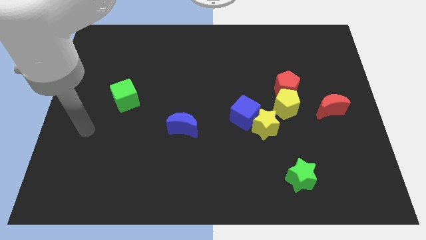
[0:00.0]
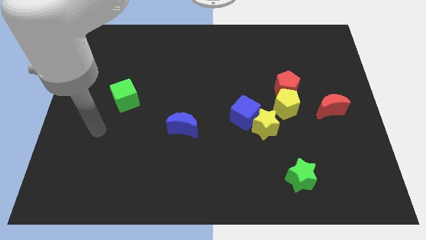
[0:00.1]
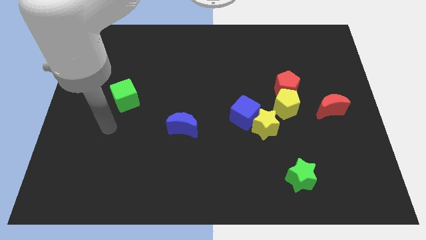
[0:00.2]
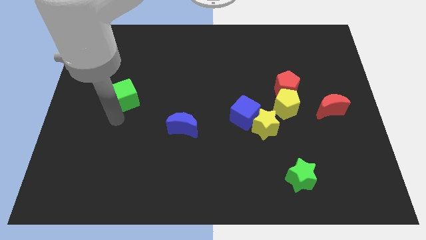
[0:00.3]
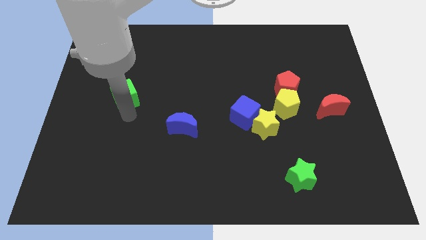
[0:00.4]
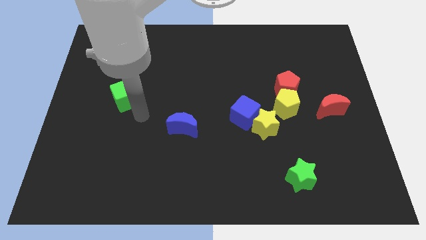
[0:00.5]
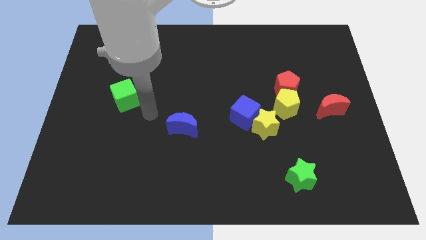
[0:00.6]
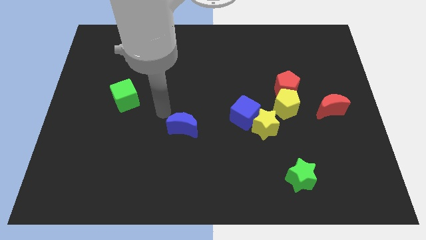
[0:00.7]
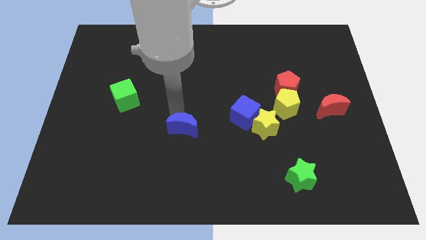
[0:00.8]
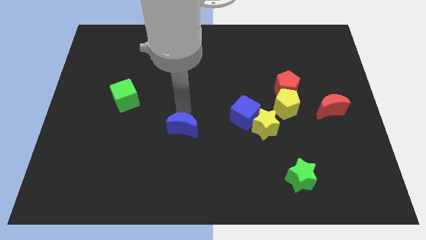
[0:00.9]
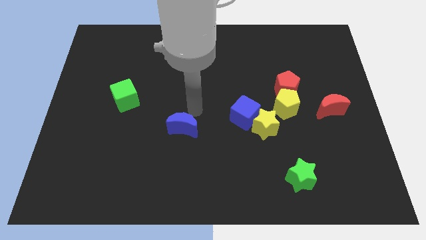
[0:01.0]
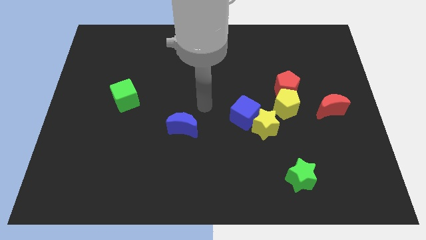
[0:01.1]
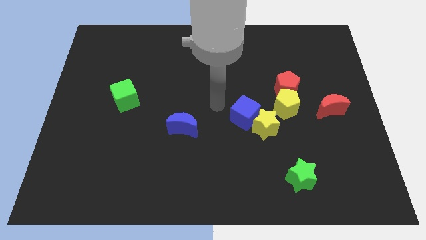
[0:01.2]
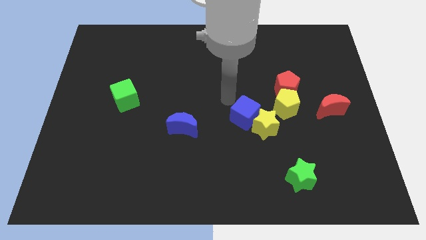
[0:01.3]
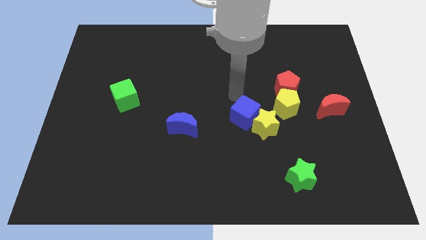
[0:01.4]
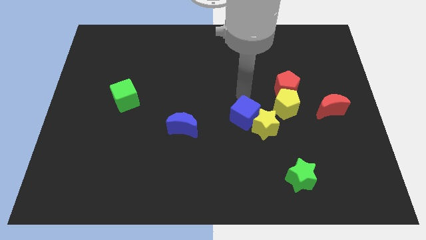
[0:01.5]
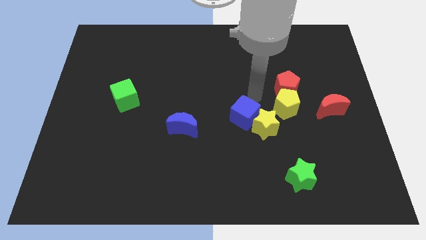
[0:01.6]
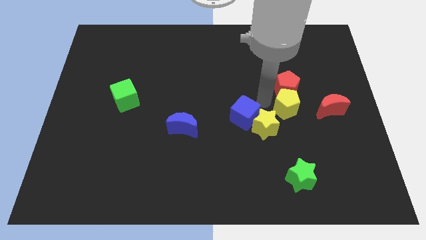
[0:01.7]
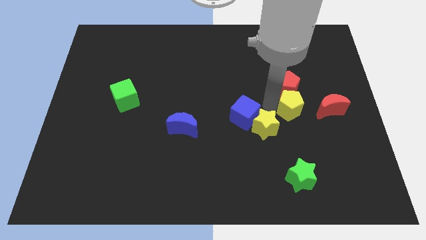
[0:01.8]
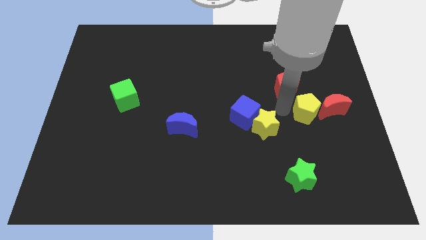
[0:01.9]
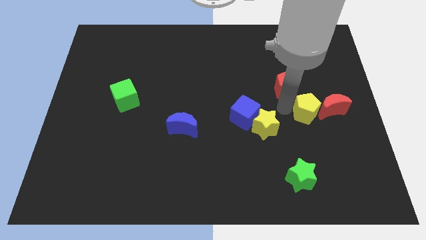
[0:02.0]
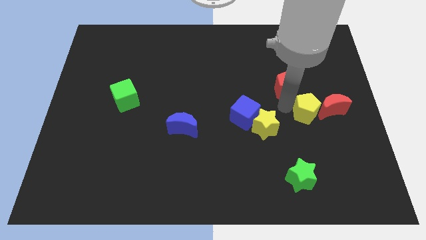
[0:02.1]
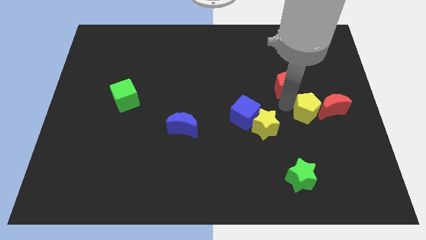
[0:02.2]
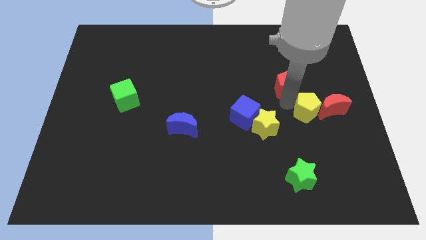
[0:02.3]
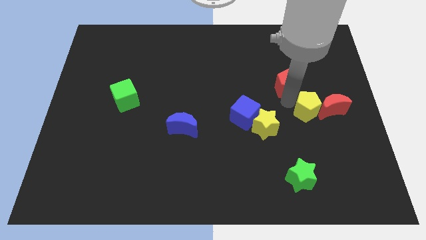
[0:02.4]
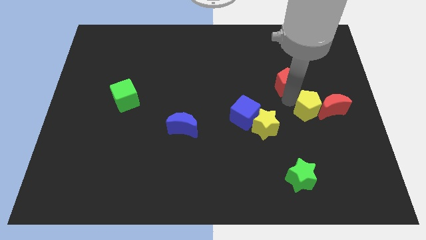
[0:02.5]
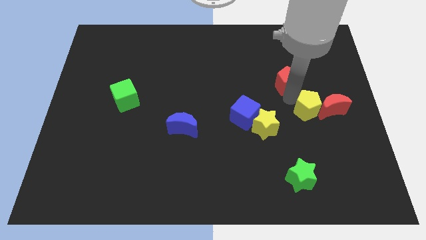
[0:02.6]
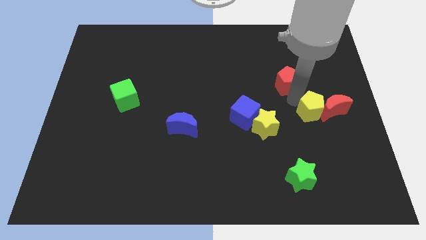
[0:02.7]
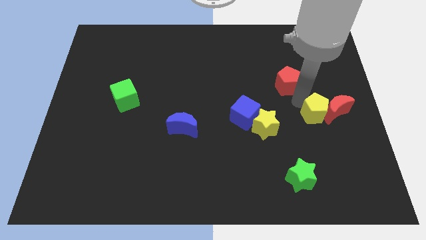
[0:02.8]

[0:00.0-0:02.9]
move the red pentagon away from the yellow pentagon

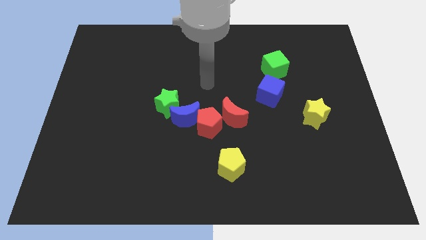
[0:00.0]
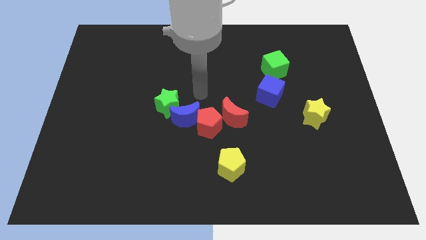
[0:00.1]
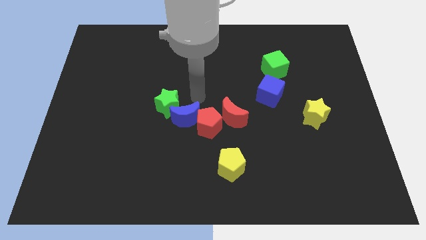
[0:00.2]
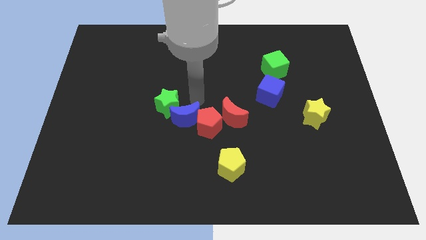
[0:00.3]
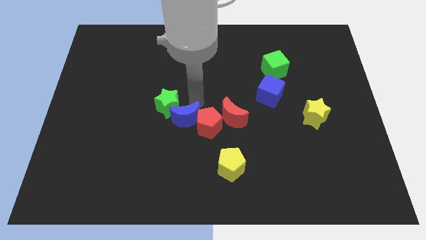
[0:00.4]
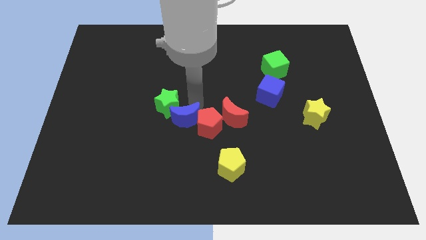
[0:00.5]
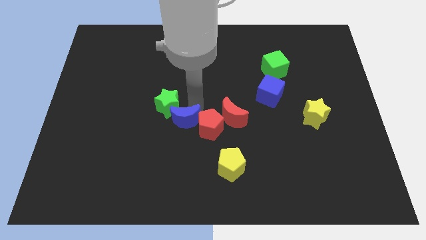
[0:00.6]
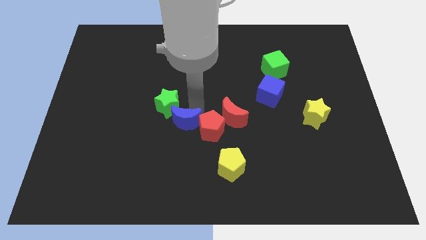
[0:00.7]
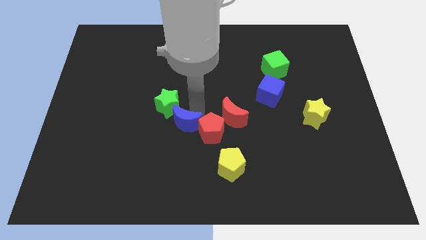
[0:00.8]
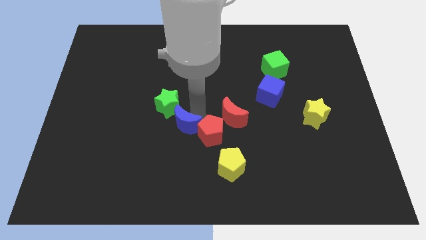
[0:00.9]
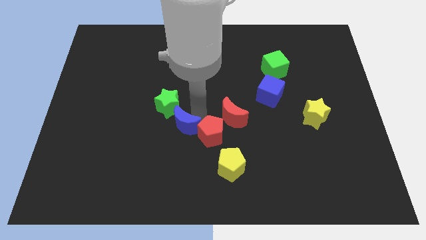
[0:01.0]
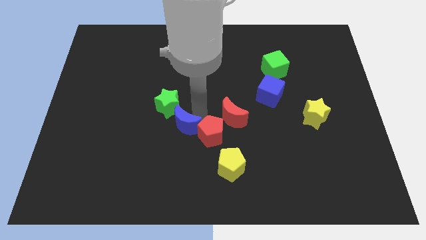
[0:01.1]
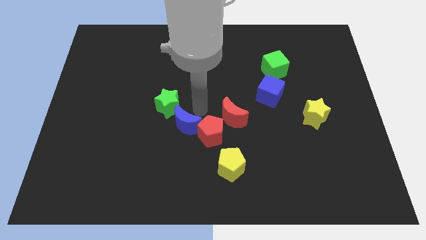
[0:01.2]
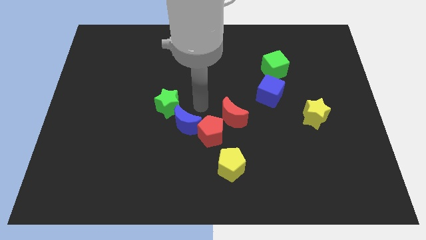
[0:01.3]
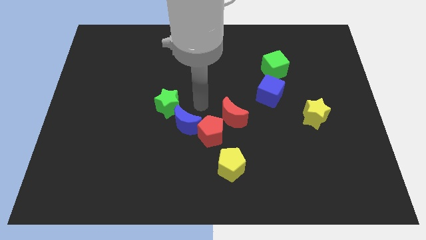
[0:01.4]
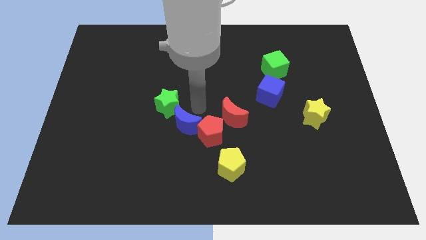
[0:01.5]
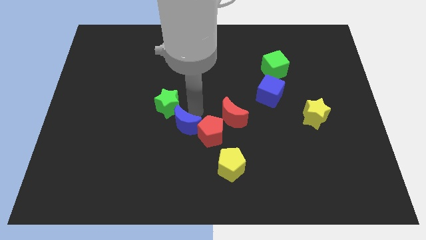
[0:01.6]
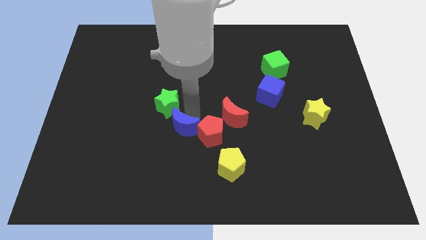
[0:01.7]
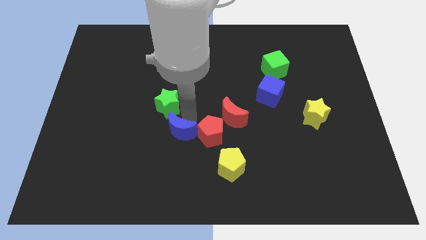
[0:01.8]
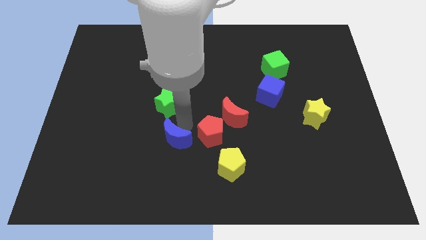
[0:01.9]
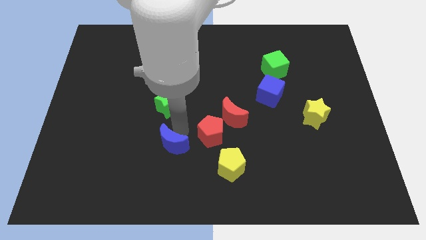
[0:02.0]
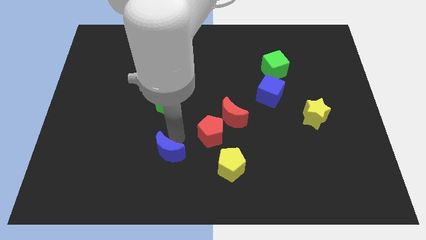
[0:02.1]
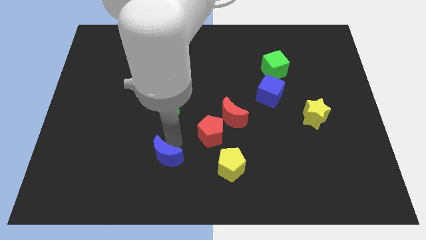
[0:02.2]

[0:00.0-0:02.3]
separate the blue moon from the red pentagon and green star

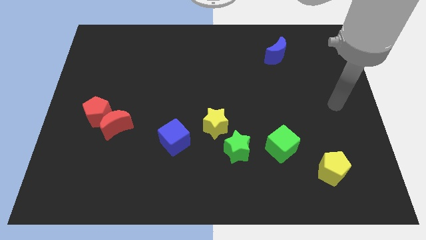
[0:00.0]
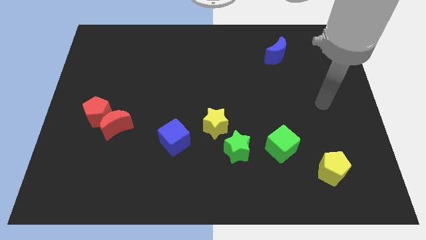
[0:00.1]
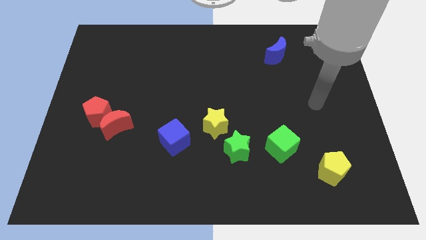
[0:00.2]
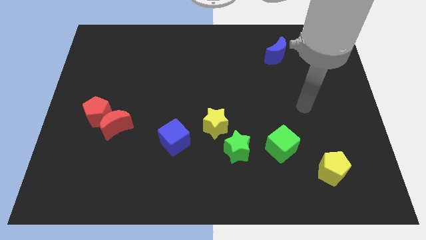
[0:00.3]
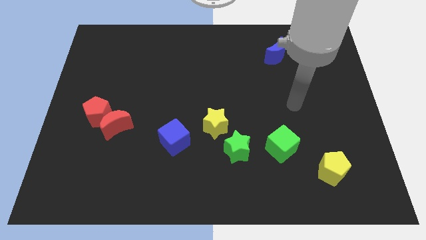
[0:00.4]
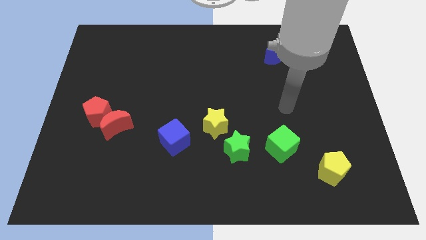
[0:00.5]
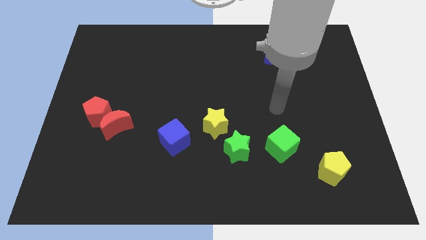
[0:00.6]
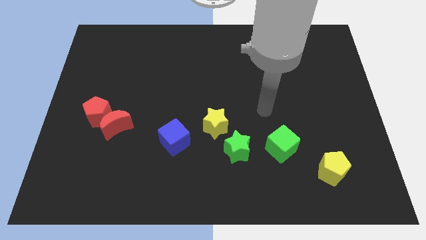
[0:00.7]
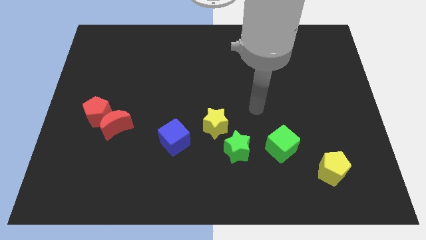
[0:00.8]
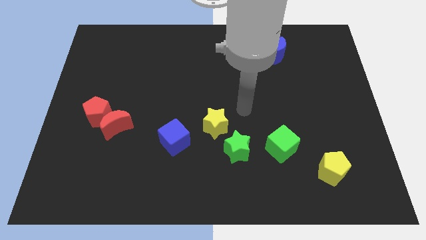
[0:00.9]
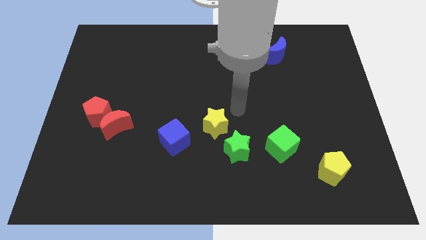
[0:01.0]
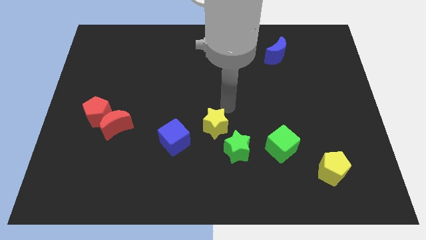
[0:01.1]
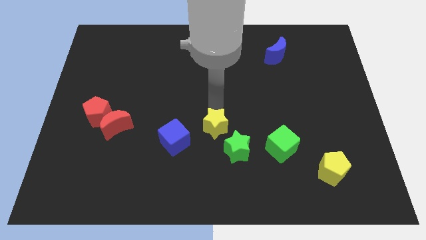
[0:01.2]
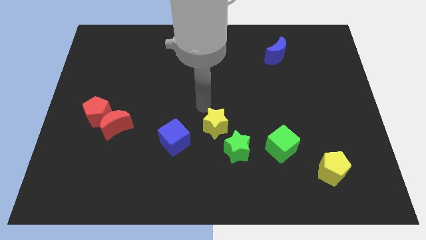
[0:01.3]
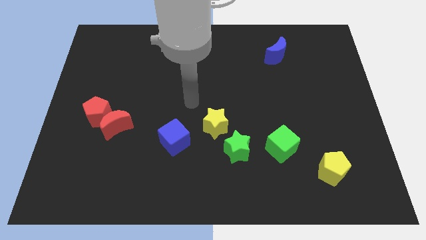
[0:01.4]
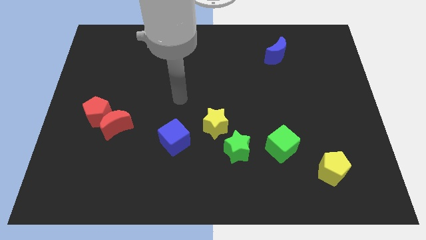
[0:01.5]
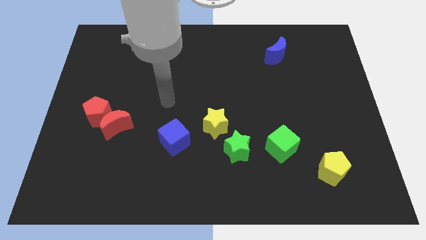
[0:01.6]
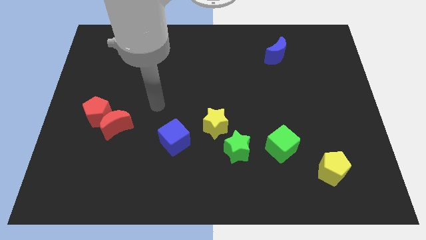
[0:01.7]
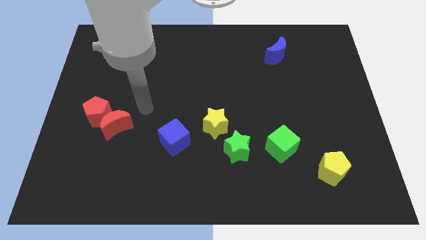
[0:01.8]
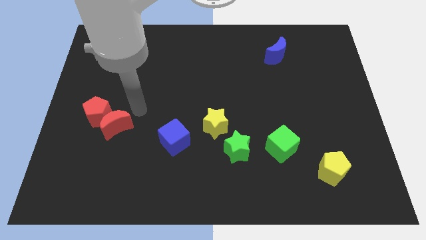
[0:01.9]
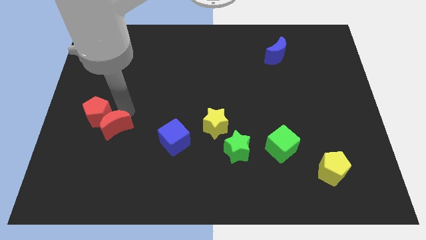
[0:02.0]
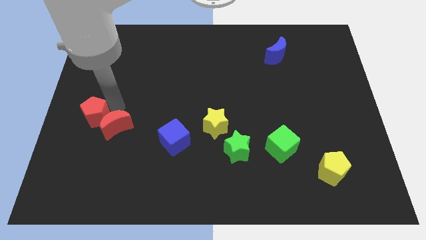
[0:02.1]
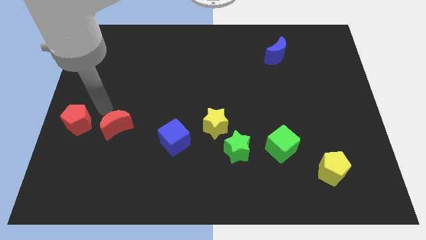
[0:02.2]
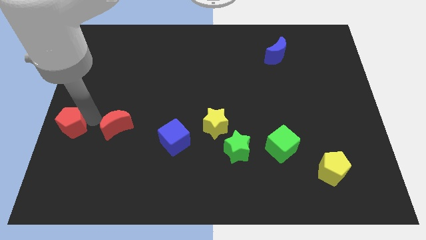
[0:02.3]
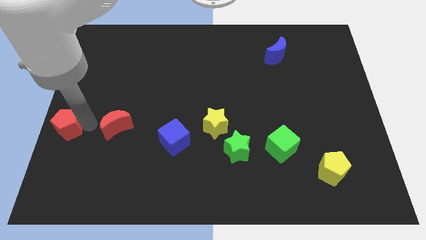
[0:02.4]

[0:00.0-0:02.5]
separate the red moon from the red pentagon

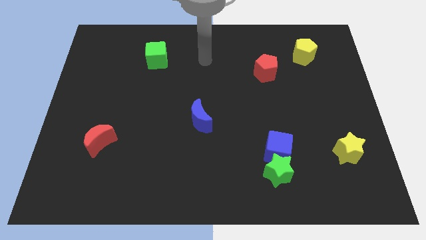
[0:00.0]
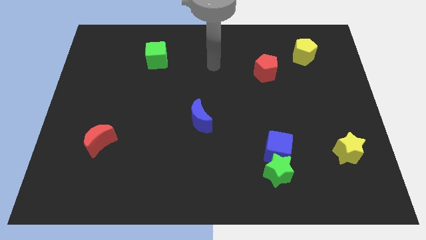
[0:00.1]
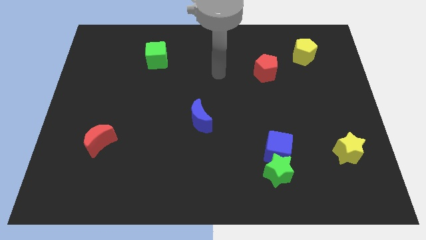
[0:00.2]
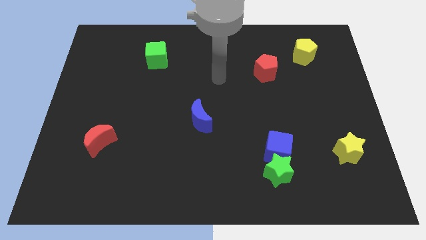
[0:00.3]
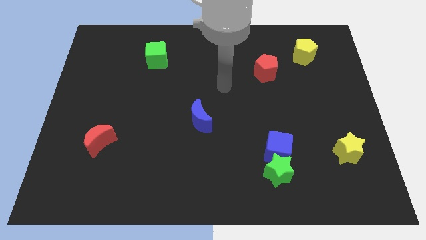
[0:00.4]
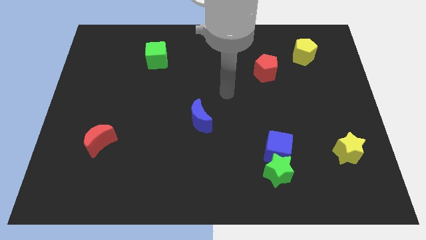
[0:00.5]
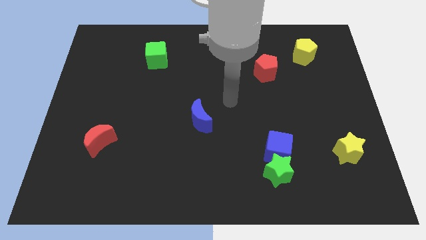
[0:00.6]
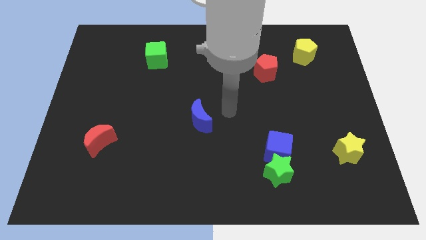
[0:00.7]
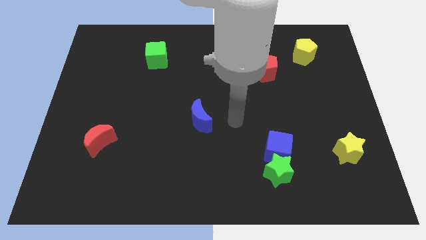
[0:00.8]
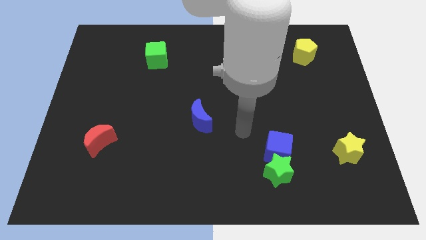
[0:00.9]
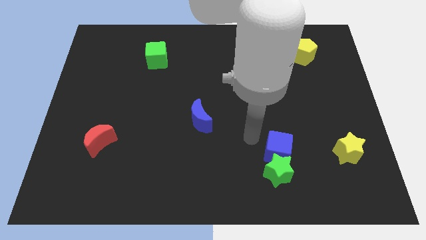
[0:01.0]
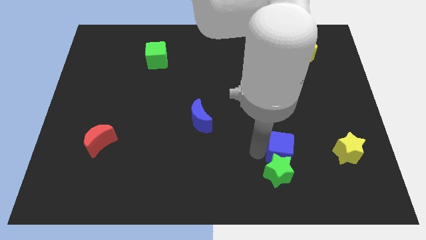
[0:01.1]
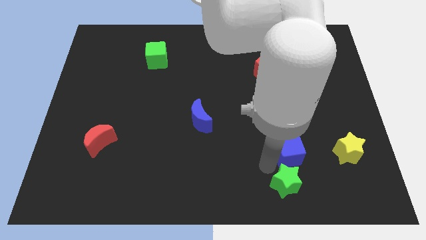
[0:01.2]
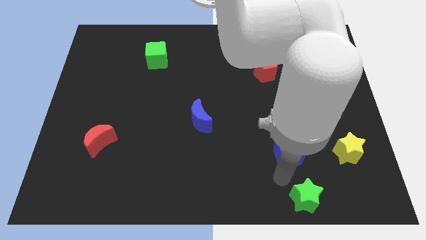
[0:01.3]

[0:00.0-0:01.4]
separate the blue cube from the green star

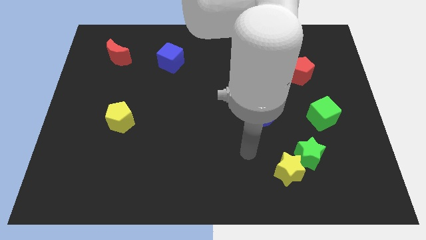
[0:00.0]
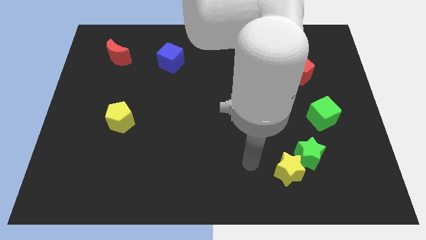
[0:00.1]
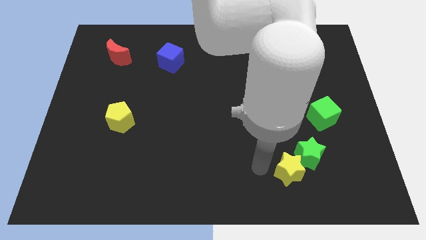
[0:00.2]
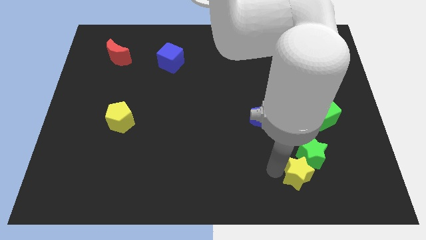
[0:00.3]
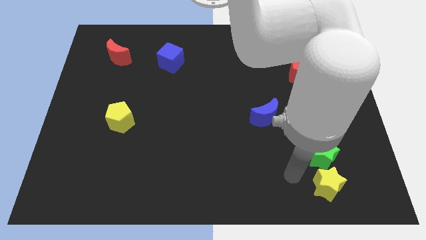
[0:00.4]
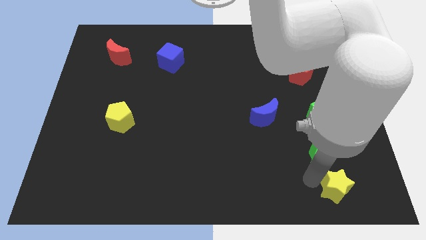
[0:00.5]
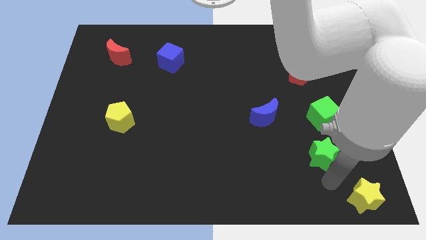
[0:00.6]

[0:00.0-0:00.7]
separate the green star from the yellow star
